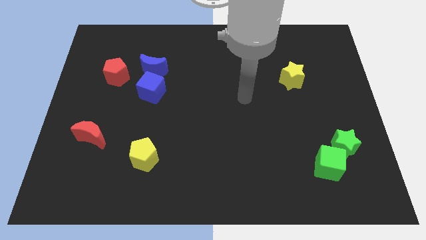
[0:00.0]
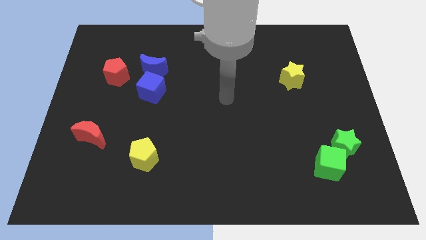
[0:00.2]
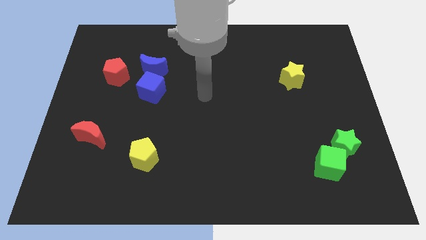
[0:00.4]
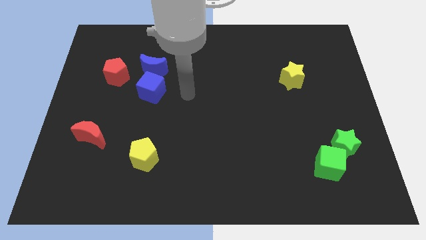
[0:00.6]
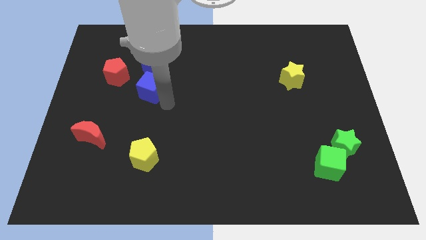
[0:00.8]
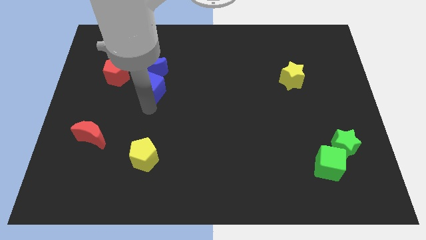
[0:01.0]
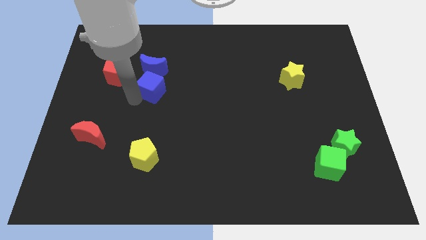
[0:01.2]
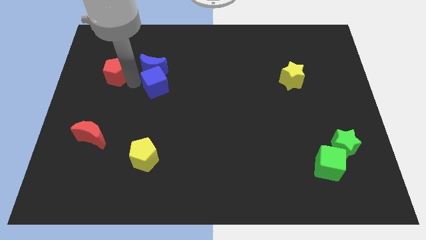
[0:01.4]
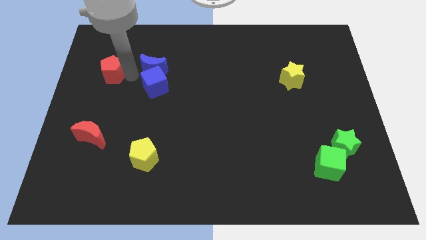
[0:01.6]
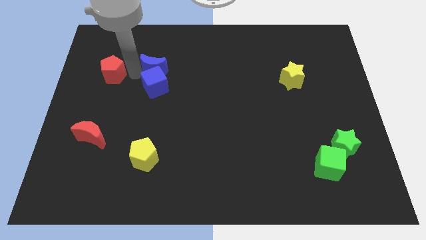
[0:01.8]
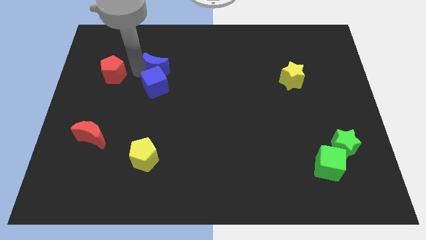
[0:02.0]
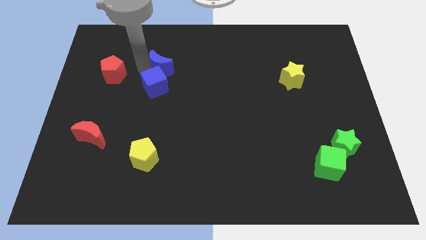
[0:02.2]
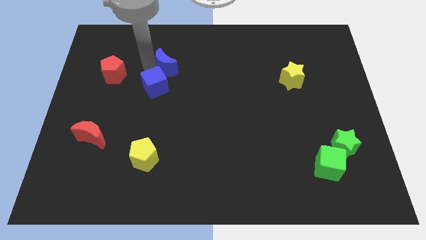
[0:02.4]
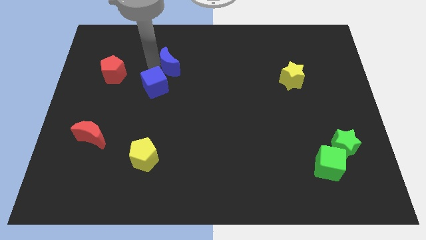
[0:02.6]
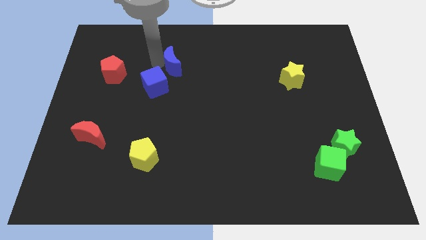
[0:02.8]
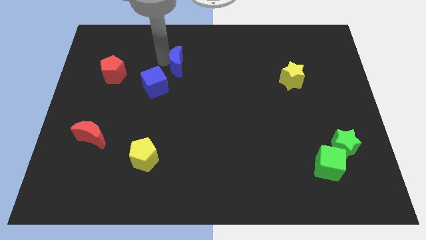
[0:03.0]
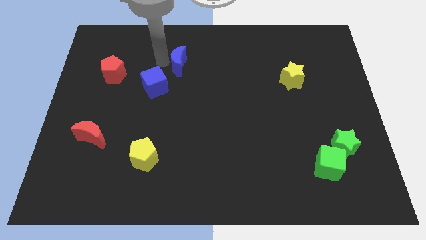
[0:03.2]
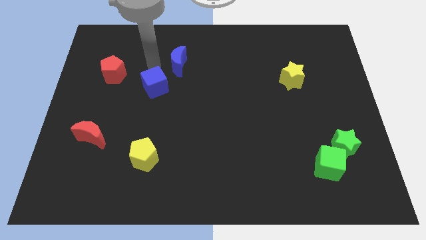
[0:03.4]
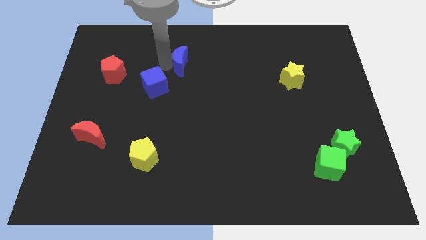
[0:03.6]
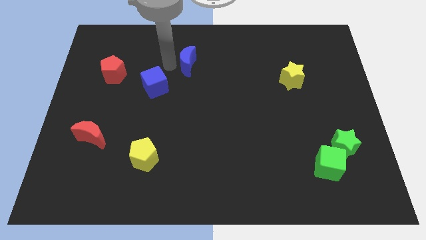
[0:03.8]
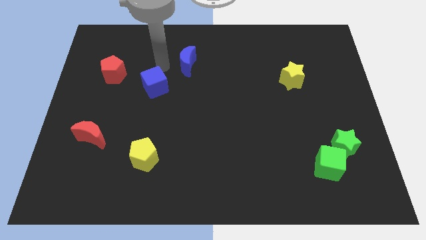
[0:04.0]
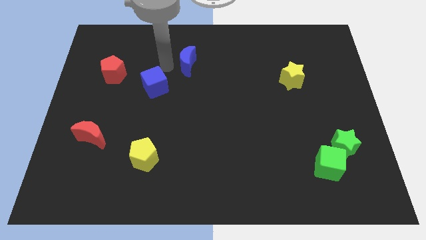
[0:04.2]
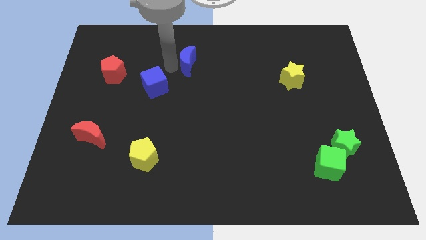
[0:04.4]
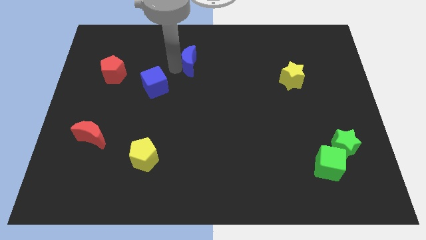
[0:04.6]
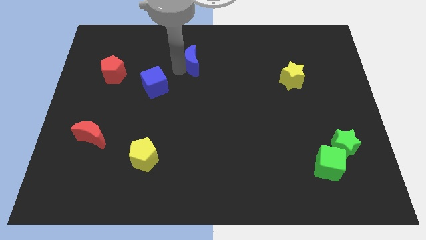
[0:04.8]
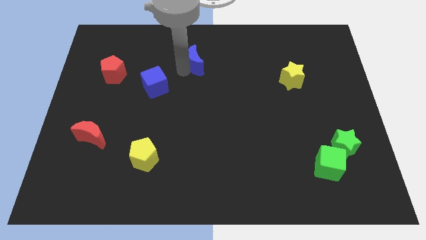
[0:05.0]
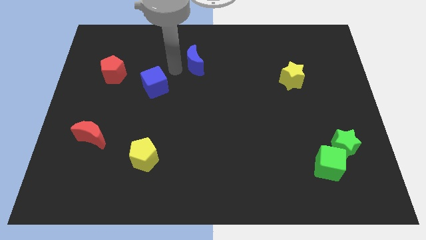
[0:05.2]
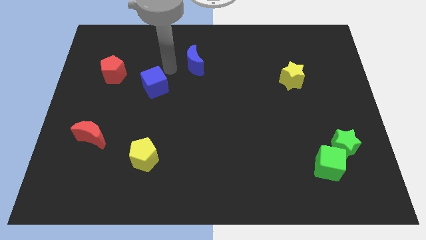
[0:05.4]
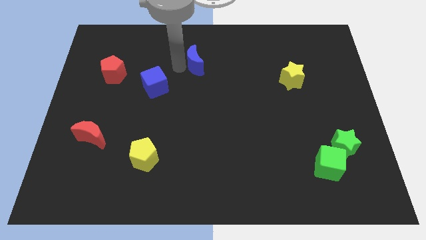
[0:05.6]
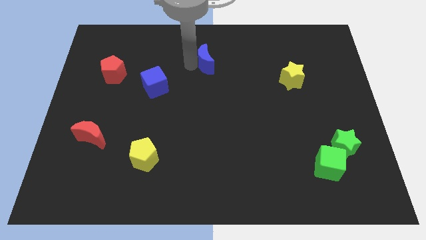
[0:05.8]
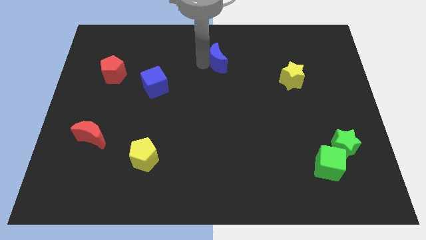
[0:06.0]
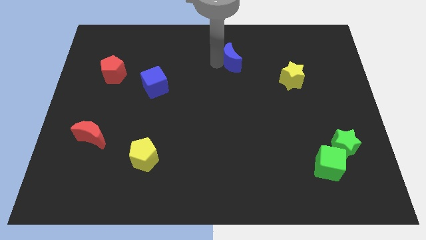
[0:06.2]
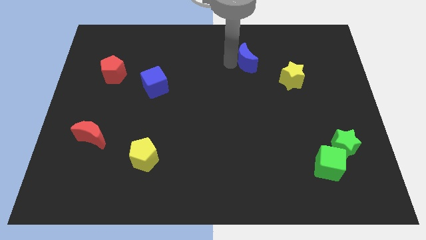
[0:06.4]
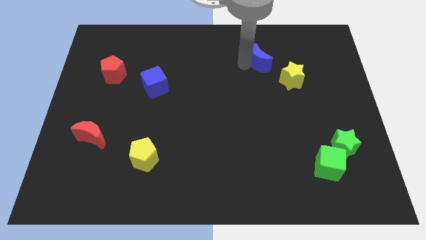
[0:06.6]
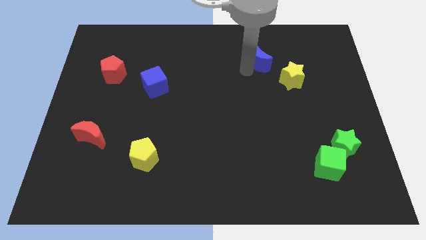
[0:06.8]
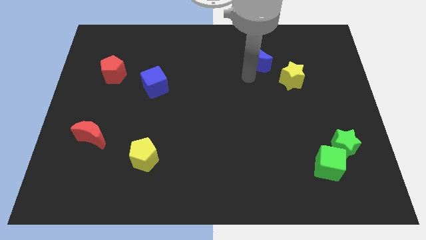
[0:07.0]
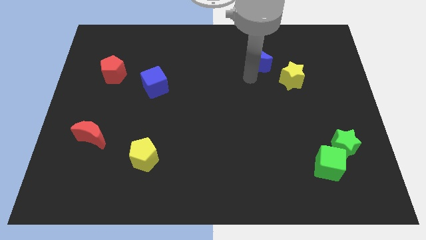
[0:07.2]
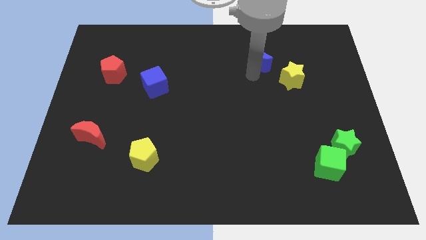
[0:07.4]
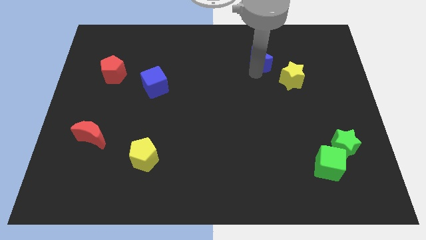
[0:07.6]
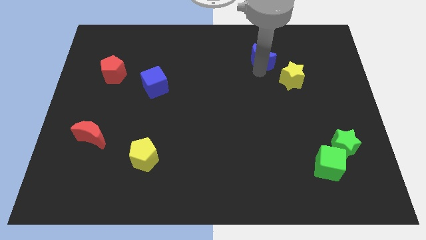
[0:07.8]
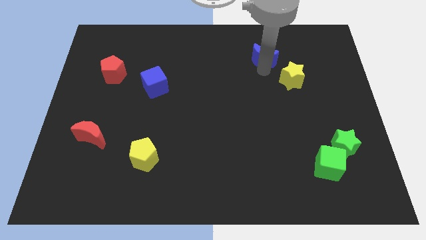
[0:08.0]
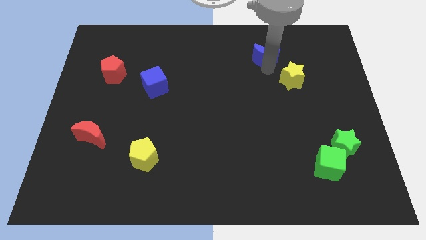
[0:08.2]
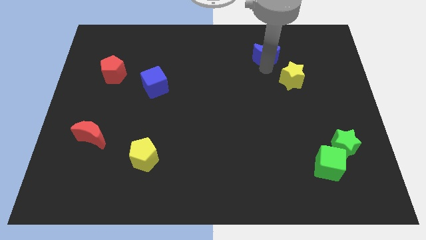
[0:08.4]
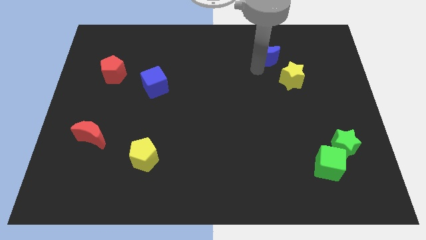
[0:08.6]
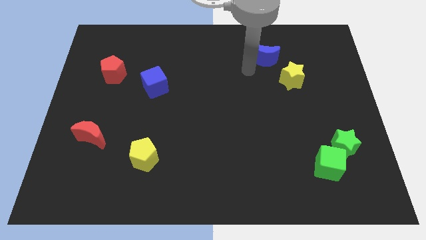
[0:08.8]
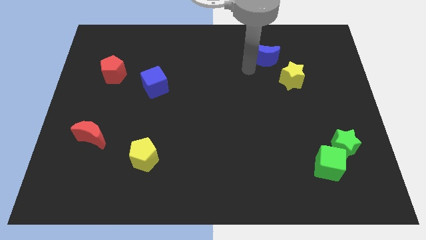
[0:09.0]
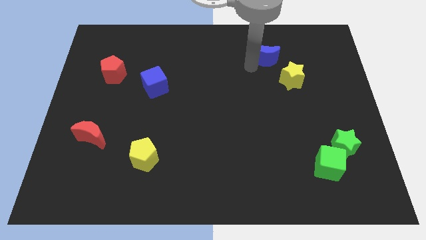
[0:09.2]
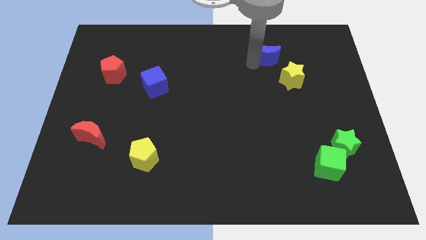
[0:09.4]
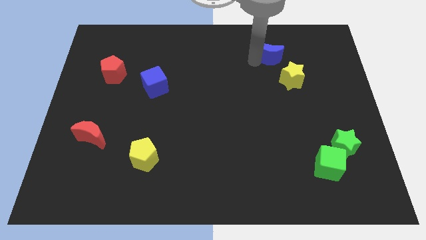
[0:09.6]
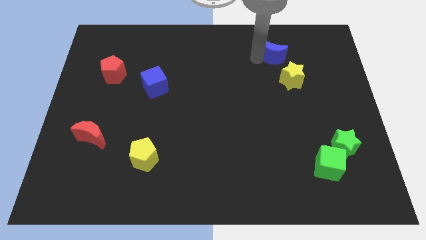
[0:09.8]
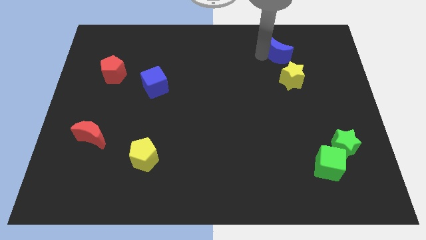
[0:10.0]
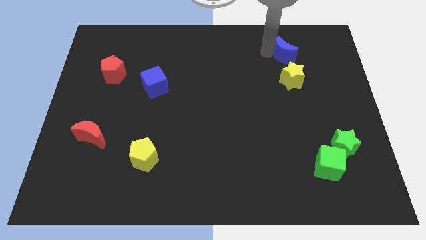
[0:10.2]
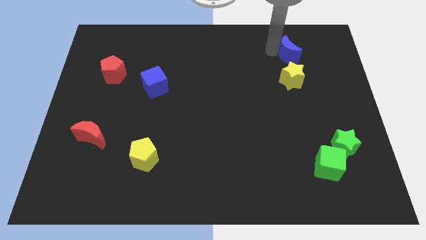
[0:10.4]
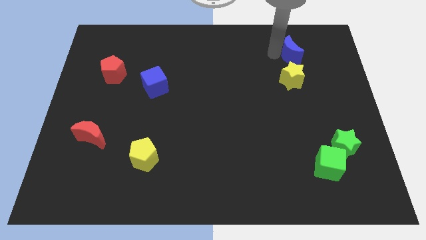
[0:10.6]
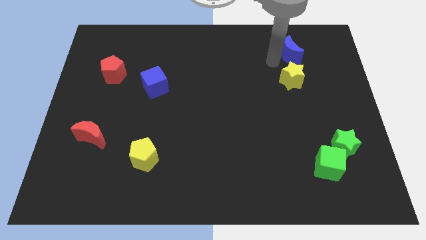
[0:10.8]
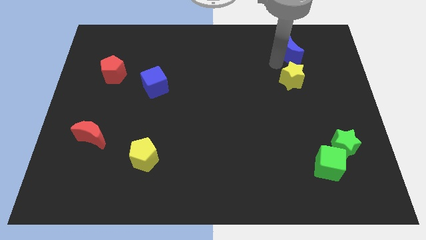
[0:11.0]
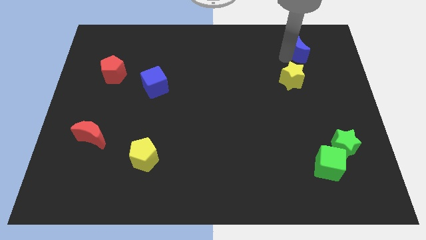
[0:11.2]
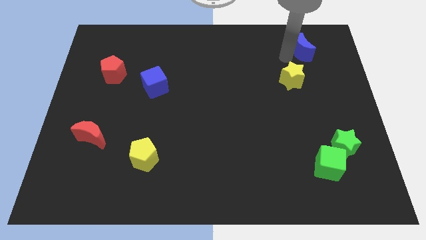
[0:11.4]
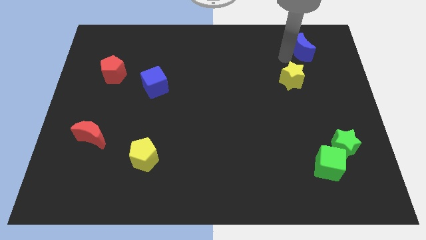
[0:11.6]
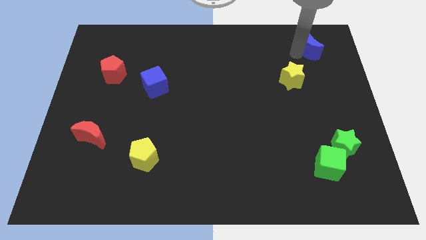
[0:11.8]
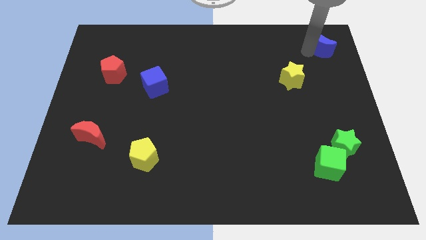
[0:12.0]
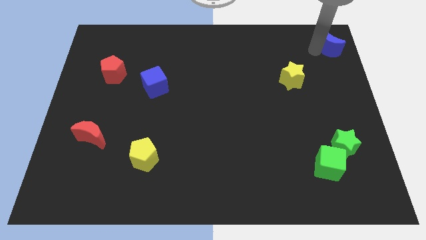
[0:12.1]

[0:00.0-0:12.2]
put the blue moon to the top right corner

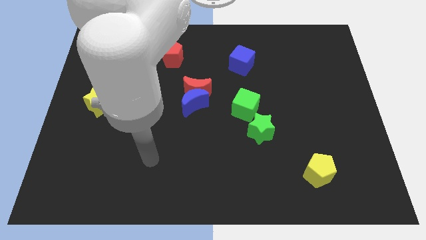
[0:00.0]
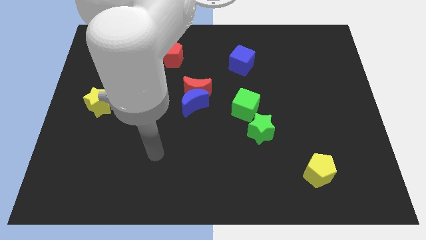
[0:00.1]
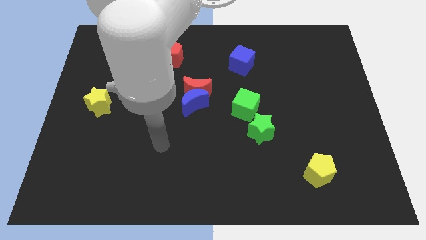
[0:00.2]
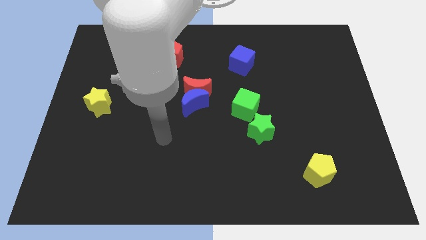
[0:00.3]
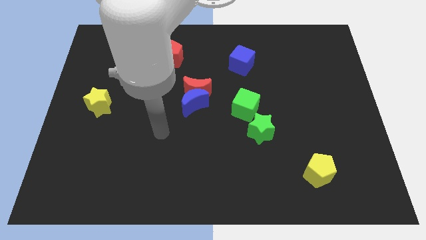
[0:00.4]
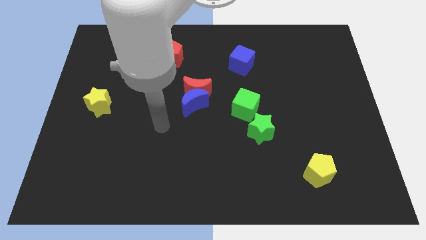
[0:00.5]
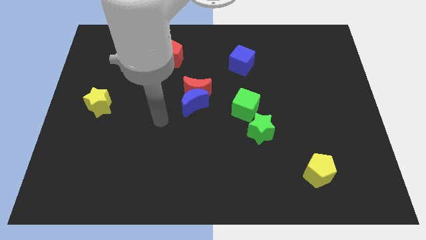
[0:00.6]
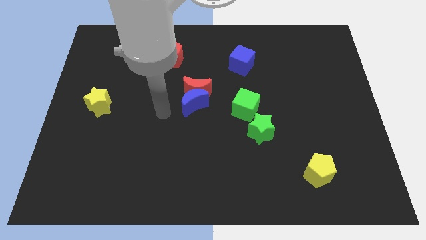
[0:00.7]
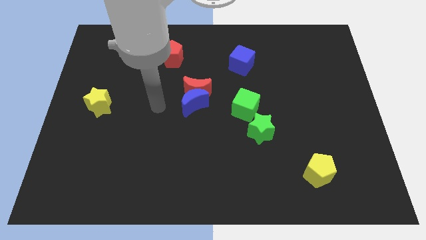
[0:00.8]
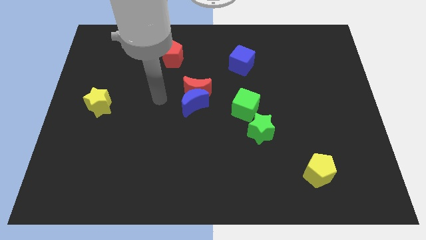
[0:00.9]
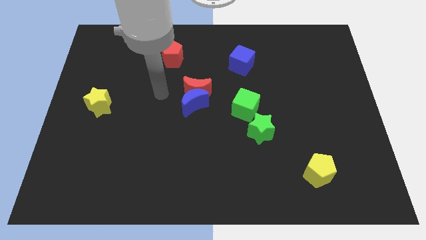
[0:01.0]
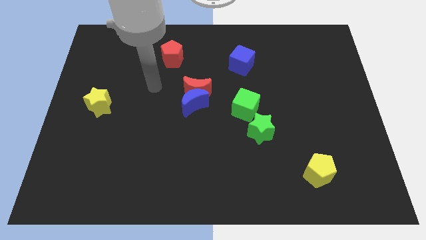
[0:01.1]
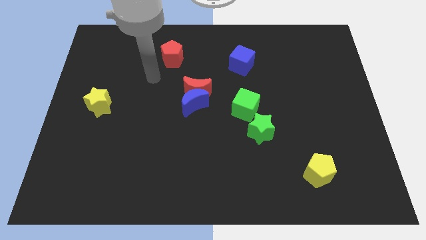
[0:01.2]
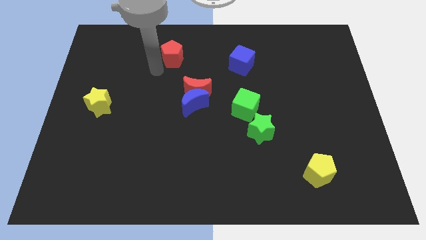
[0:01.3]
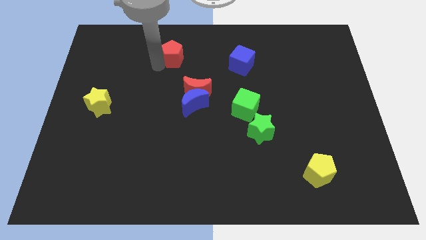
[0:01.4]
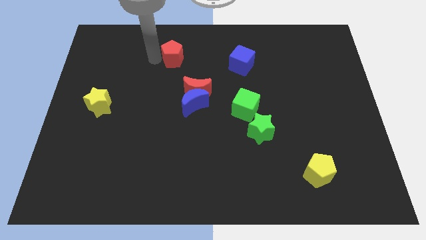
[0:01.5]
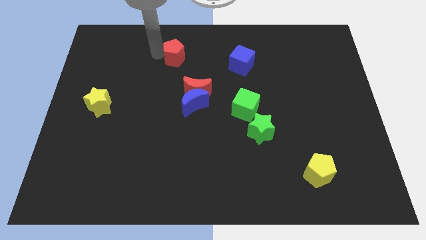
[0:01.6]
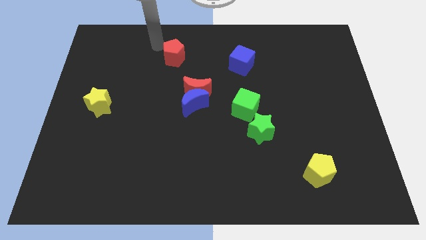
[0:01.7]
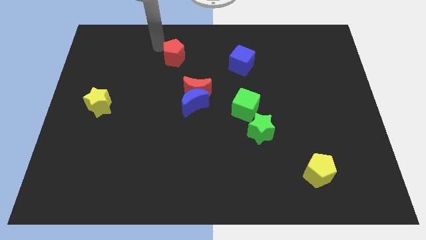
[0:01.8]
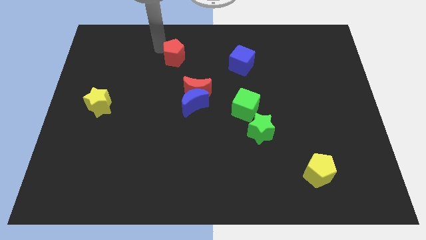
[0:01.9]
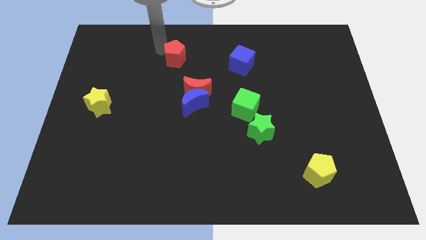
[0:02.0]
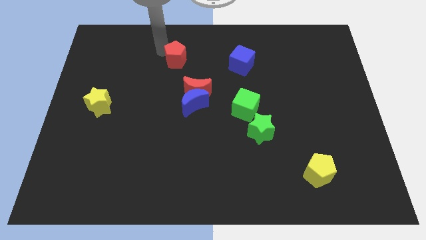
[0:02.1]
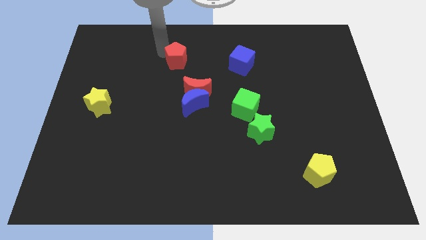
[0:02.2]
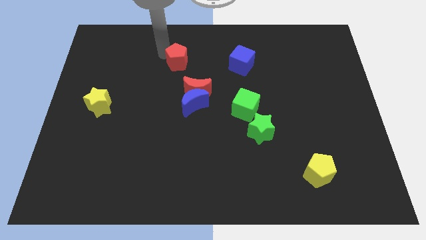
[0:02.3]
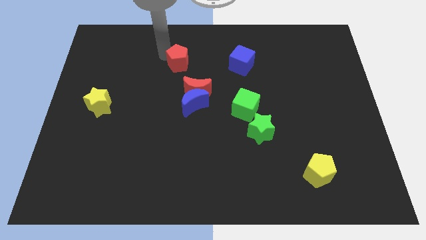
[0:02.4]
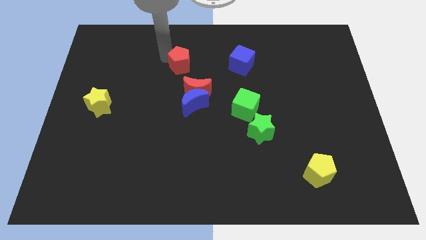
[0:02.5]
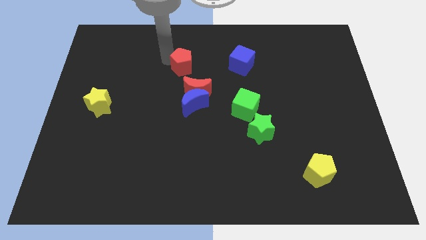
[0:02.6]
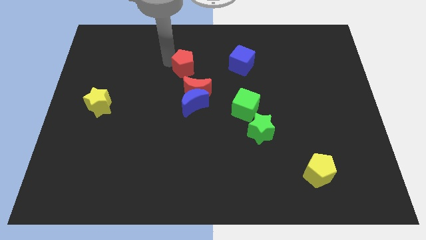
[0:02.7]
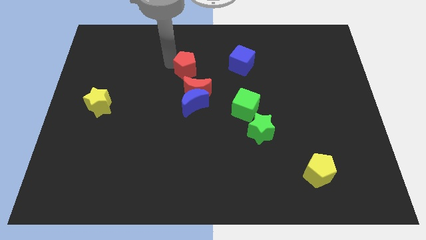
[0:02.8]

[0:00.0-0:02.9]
put the red pentagon to the middle of the board
